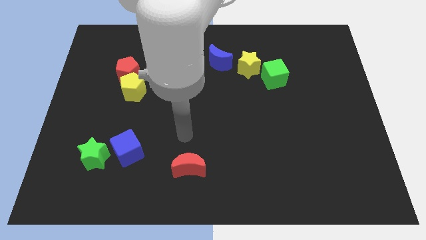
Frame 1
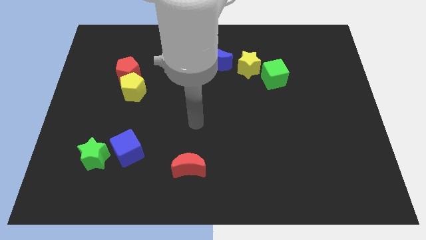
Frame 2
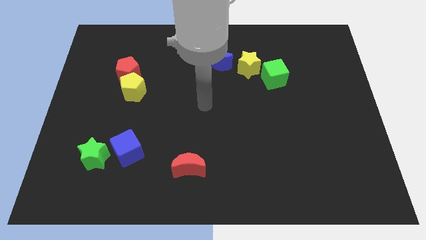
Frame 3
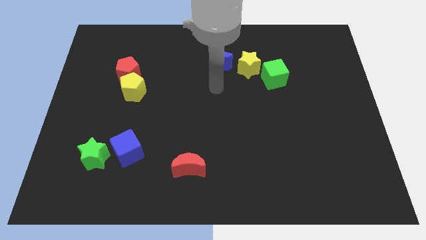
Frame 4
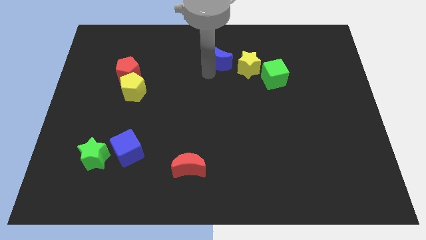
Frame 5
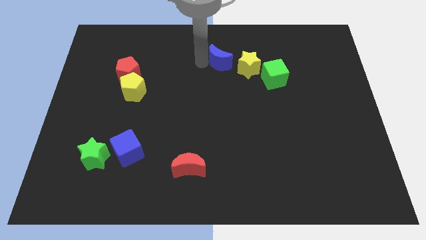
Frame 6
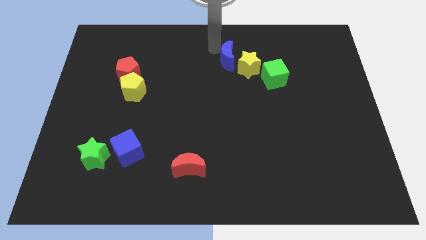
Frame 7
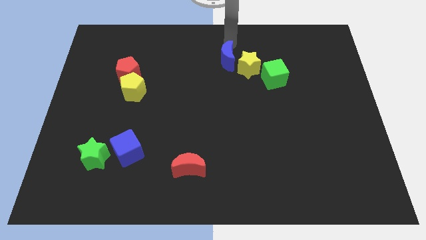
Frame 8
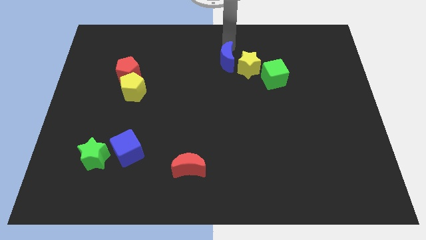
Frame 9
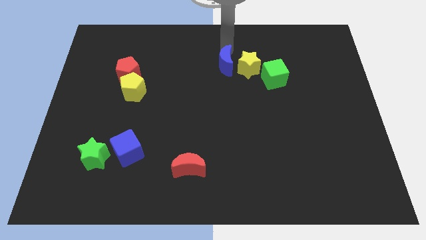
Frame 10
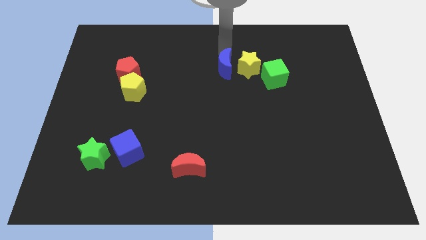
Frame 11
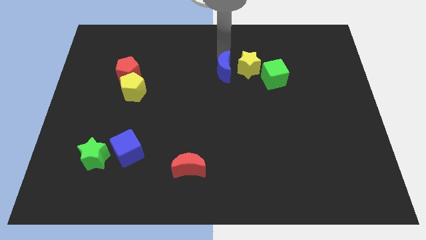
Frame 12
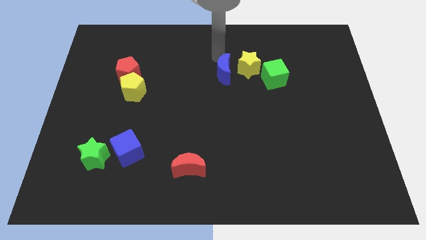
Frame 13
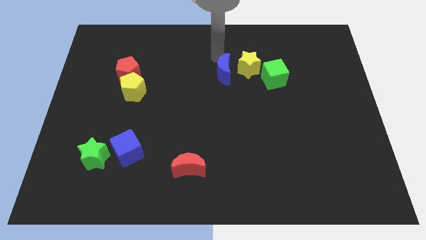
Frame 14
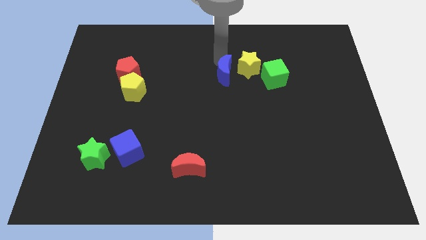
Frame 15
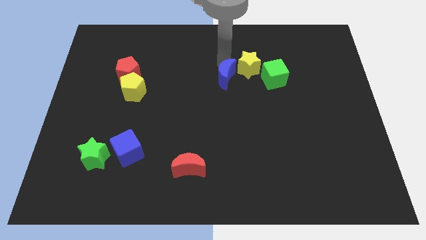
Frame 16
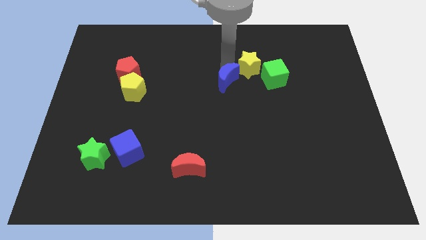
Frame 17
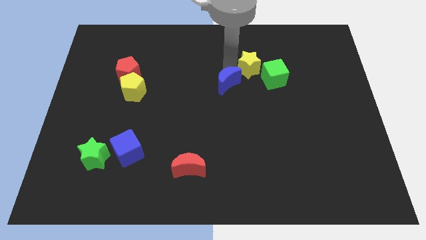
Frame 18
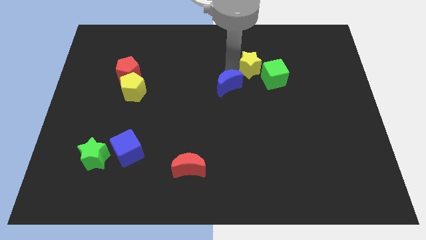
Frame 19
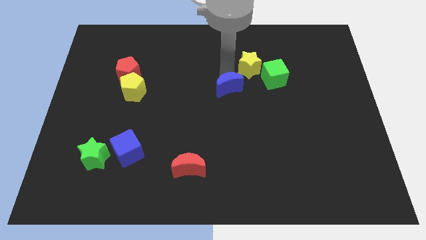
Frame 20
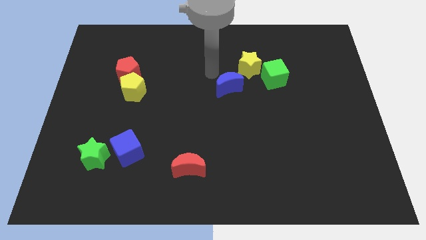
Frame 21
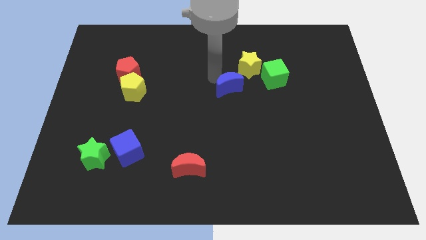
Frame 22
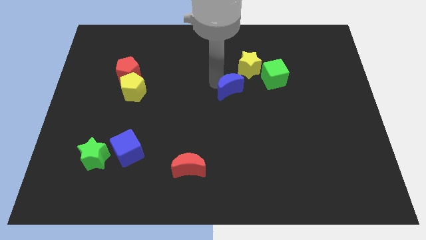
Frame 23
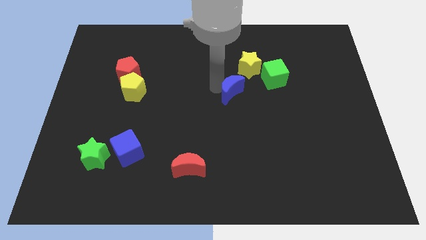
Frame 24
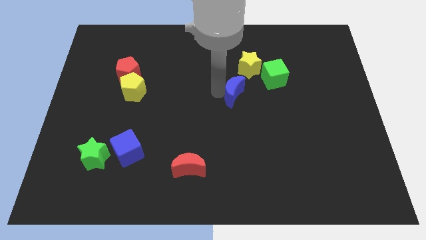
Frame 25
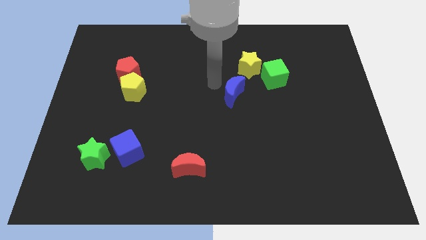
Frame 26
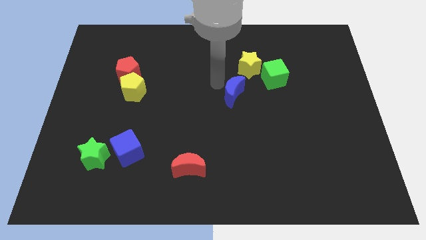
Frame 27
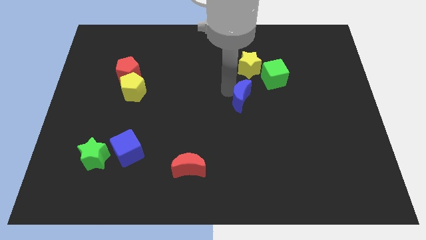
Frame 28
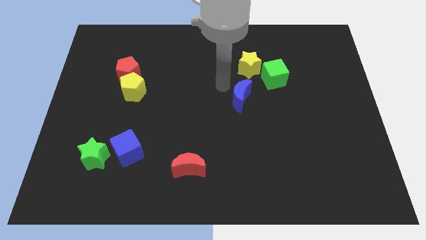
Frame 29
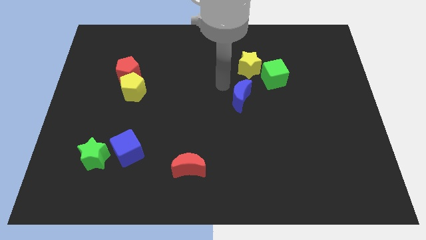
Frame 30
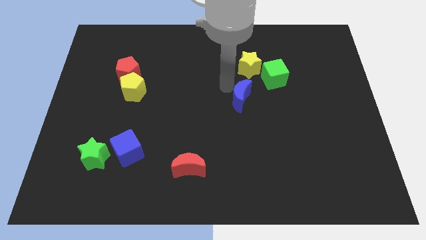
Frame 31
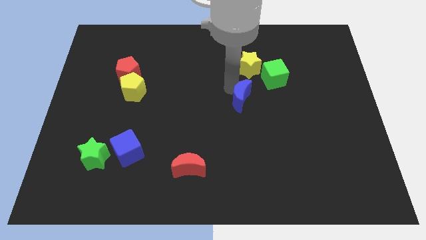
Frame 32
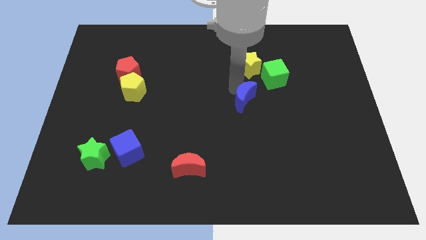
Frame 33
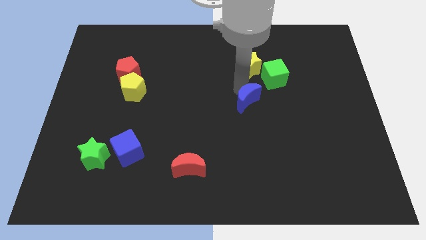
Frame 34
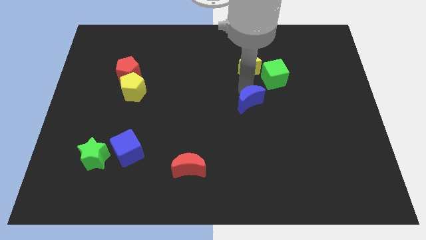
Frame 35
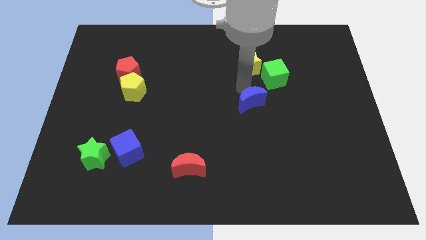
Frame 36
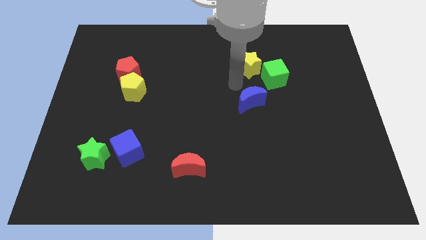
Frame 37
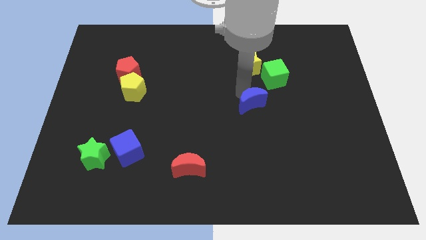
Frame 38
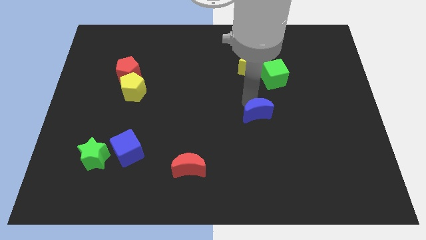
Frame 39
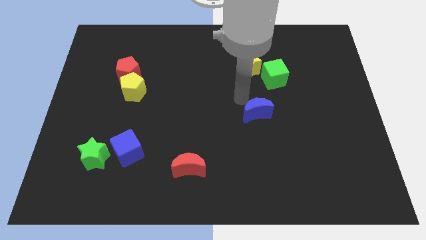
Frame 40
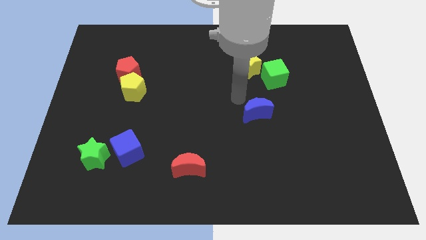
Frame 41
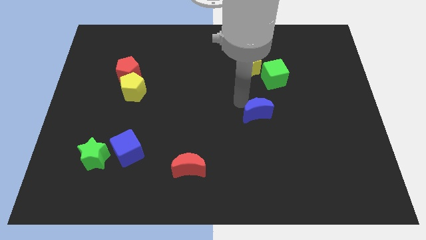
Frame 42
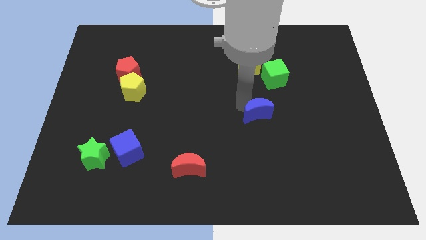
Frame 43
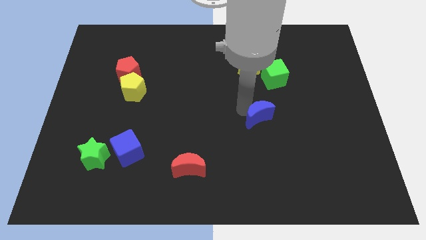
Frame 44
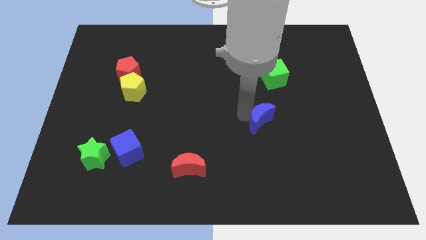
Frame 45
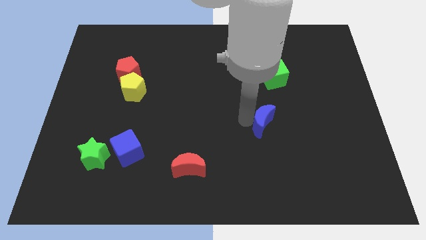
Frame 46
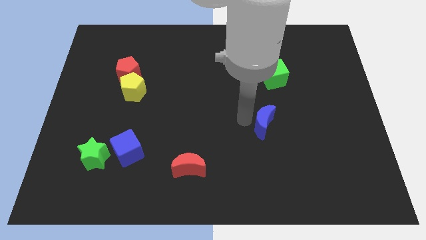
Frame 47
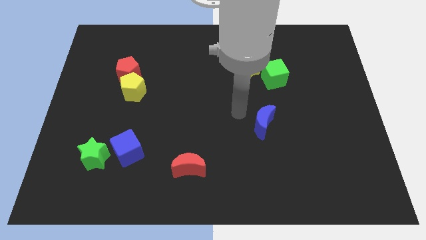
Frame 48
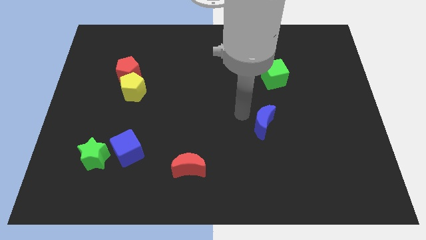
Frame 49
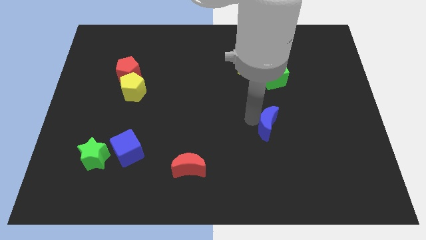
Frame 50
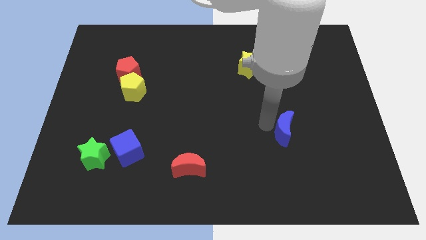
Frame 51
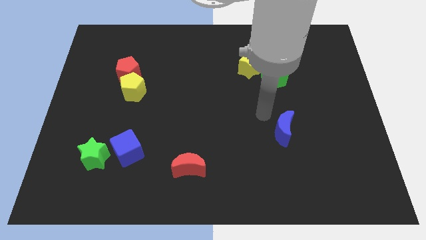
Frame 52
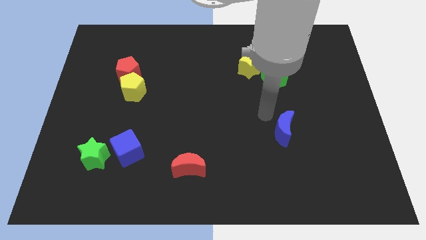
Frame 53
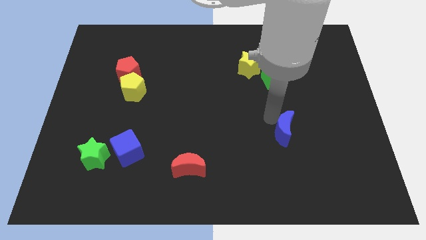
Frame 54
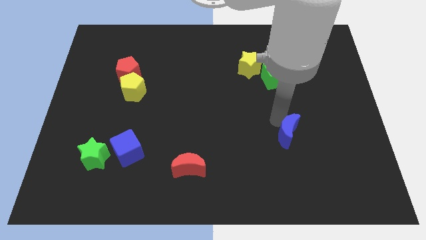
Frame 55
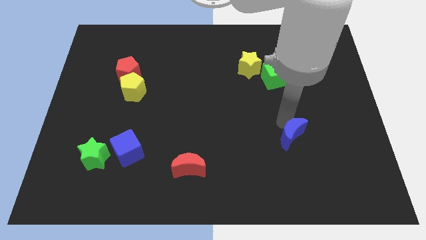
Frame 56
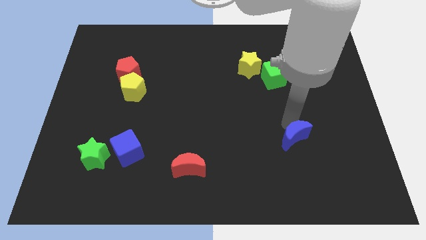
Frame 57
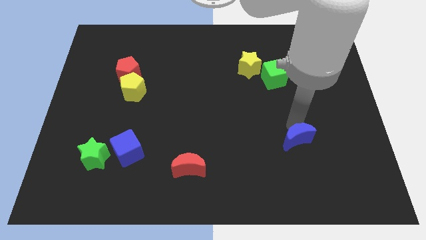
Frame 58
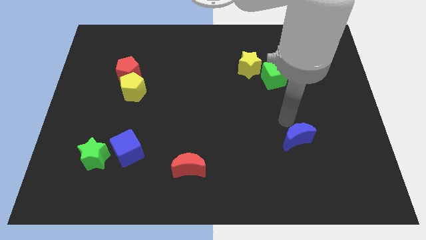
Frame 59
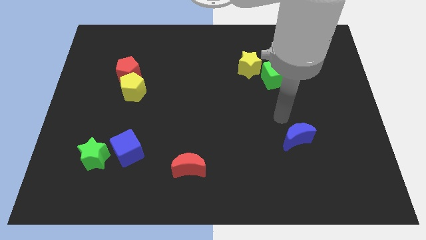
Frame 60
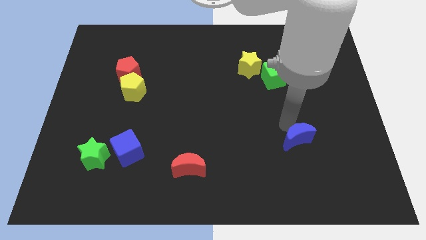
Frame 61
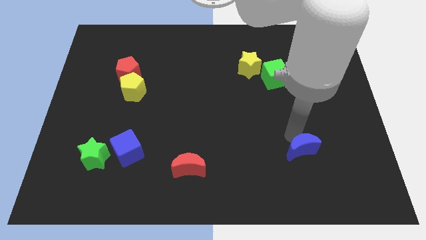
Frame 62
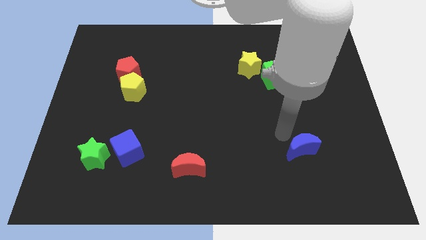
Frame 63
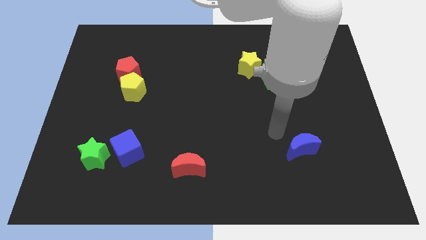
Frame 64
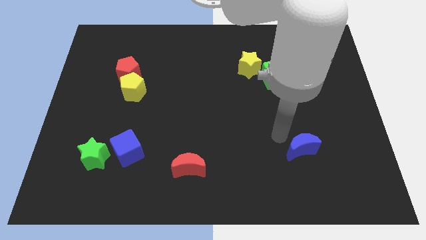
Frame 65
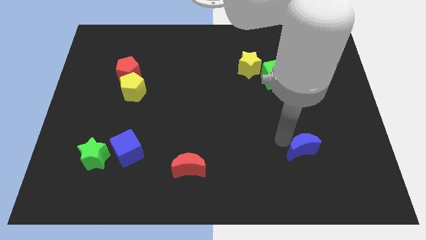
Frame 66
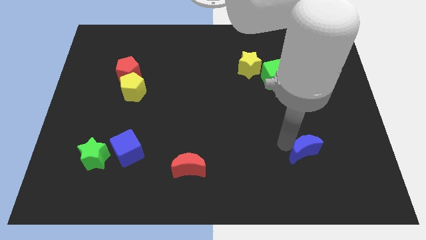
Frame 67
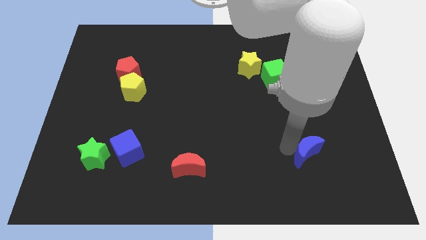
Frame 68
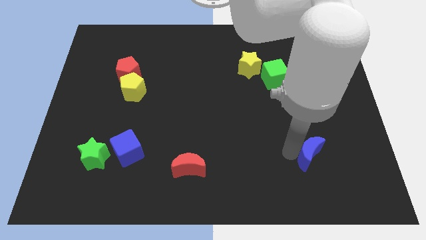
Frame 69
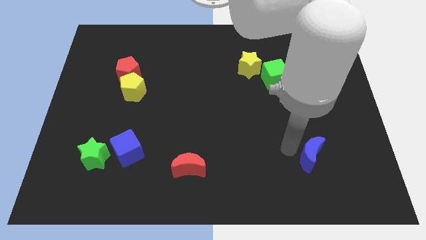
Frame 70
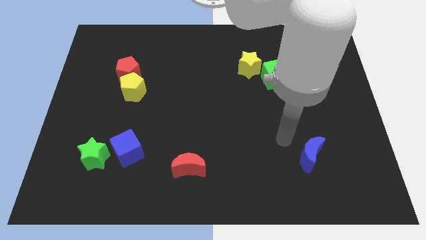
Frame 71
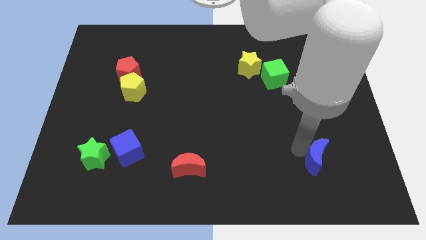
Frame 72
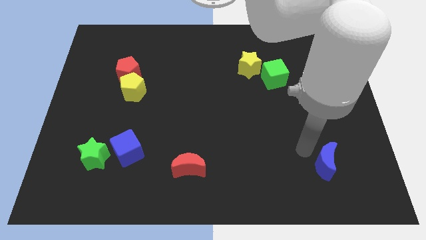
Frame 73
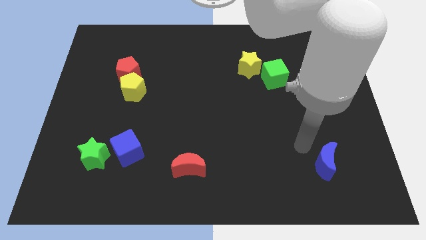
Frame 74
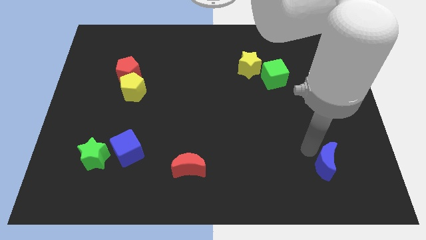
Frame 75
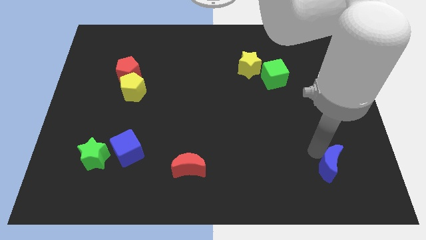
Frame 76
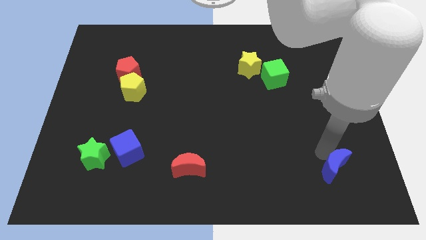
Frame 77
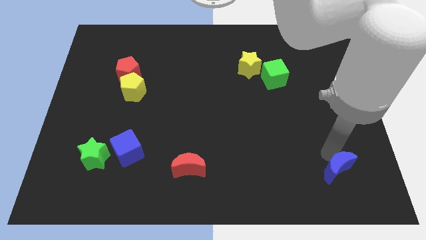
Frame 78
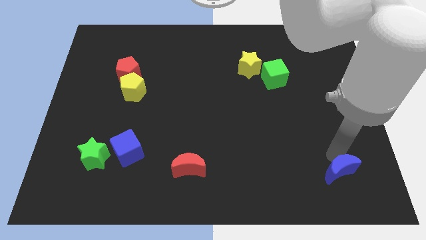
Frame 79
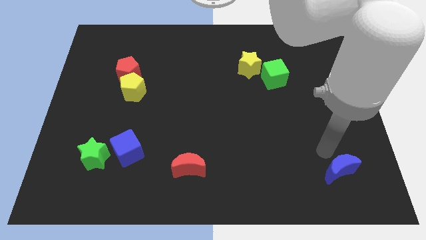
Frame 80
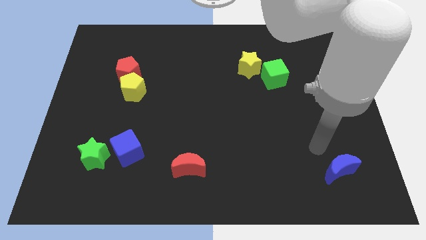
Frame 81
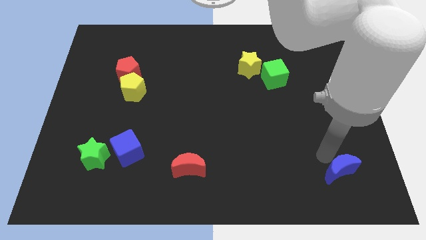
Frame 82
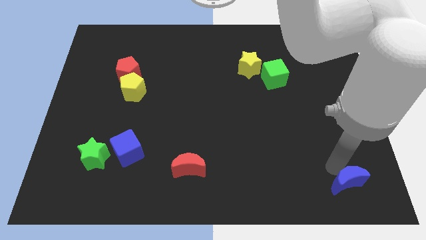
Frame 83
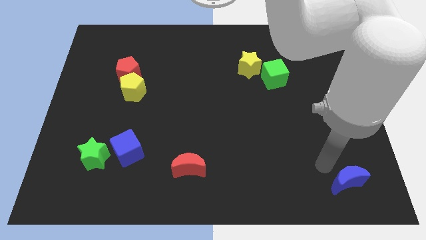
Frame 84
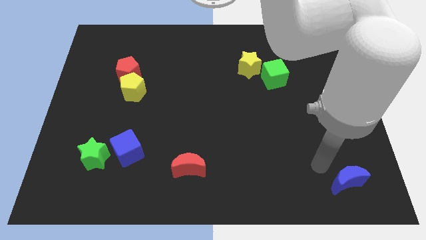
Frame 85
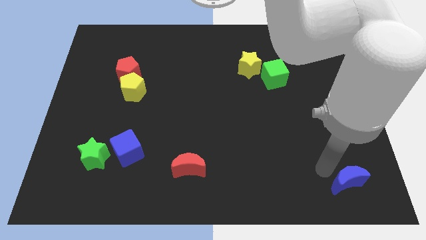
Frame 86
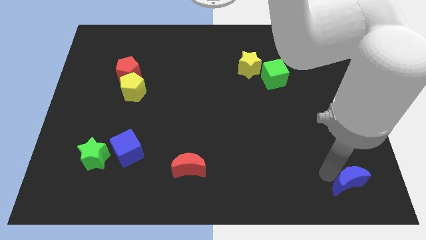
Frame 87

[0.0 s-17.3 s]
push the blue moon to the bottom right
